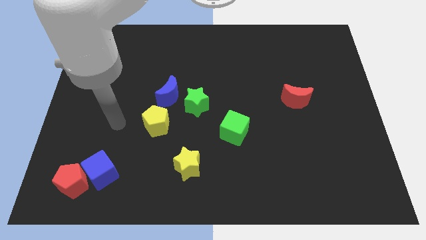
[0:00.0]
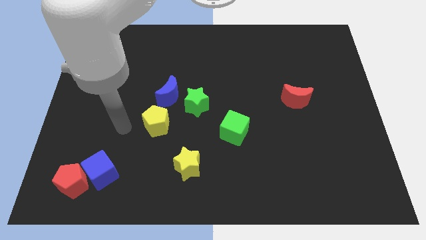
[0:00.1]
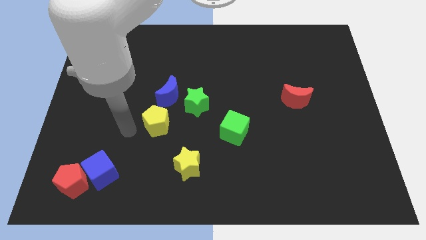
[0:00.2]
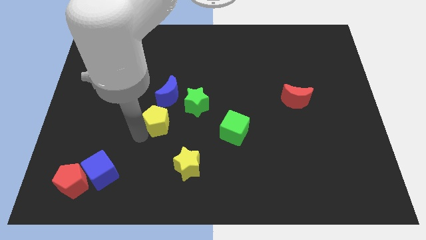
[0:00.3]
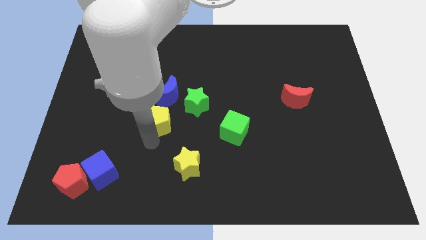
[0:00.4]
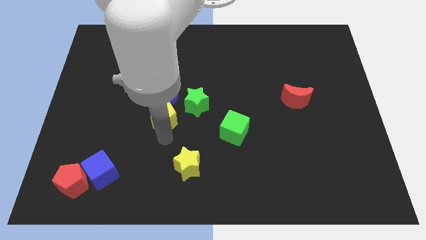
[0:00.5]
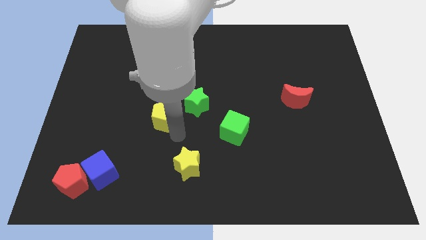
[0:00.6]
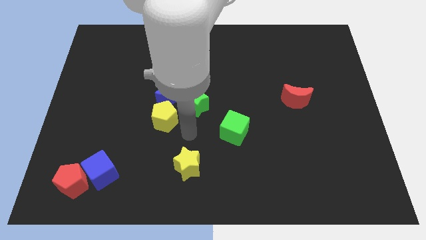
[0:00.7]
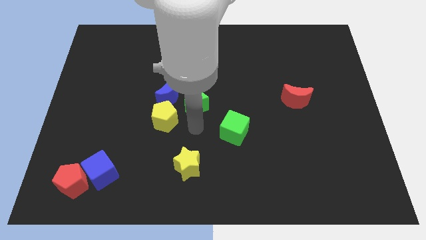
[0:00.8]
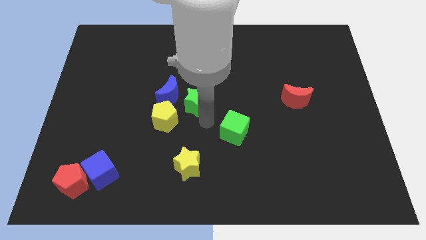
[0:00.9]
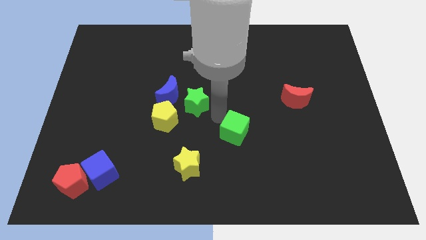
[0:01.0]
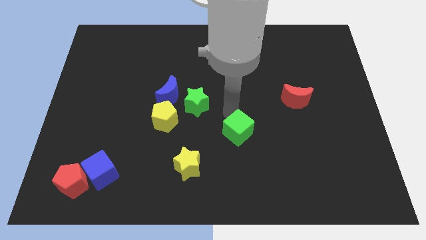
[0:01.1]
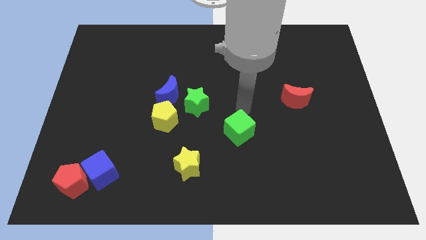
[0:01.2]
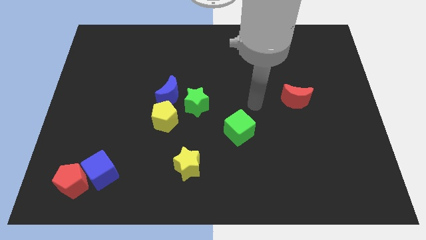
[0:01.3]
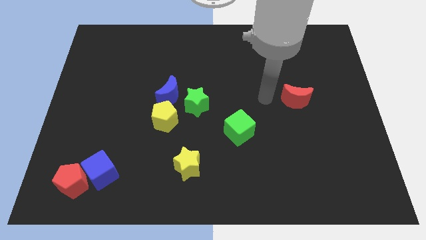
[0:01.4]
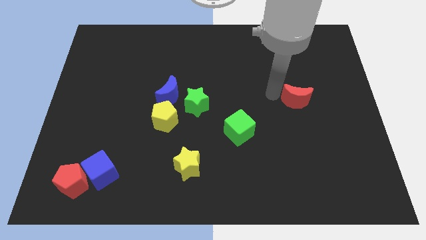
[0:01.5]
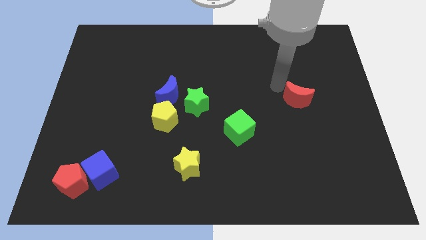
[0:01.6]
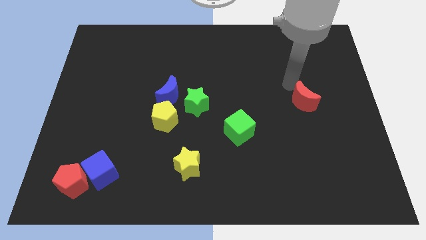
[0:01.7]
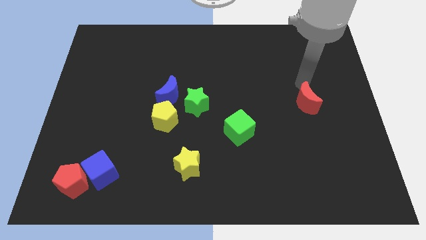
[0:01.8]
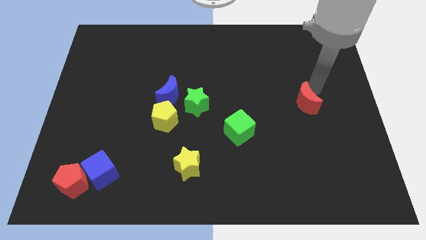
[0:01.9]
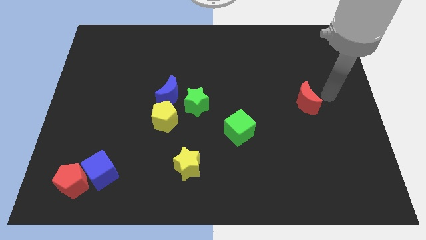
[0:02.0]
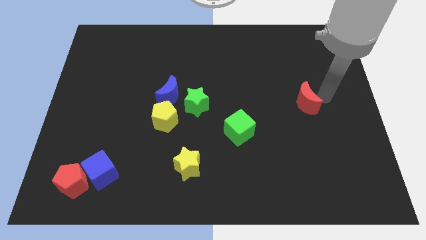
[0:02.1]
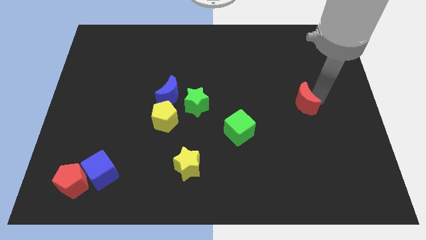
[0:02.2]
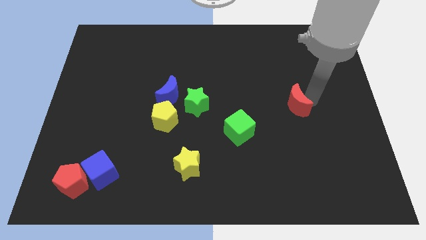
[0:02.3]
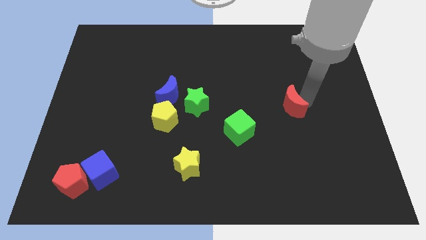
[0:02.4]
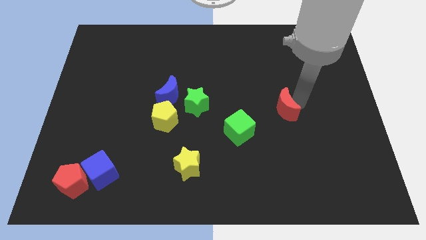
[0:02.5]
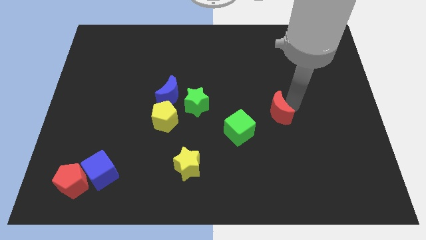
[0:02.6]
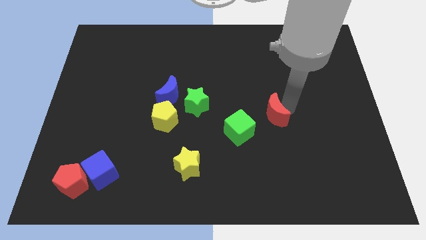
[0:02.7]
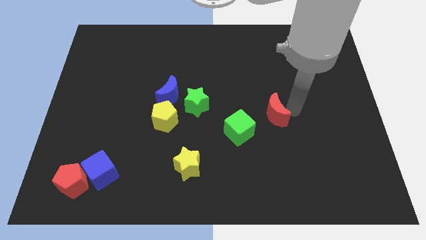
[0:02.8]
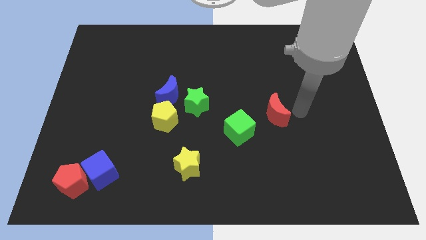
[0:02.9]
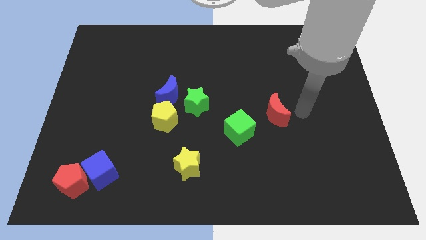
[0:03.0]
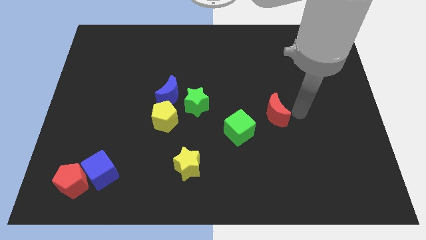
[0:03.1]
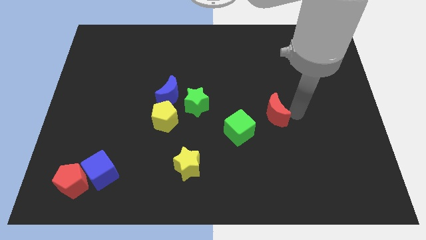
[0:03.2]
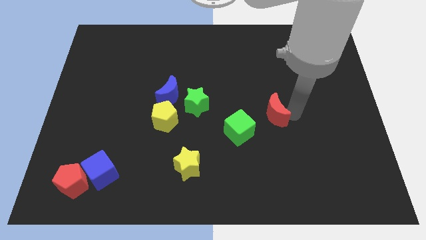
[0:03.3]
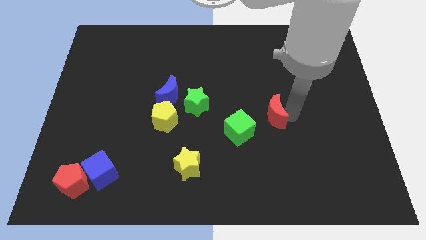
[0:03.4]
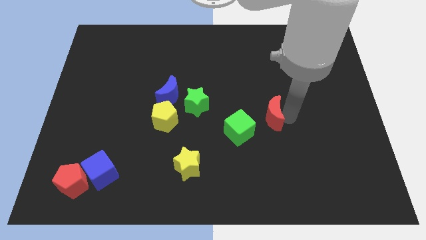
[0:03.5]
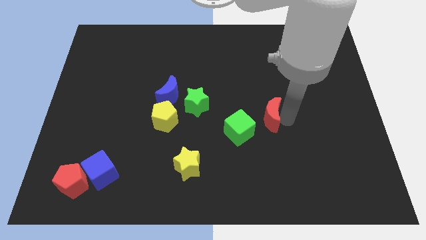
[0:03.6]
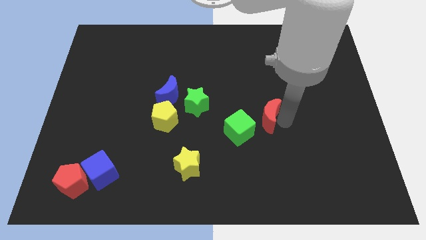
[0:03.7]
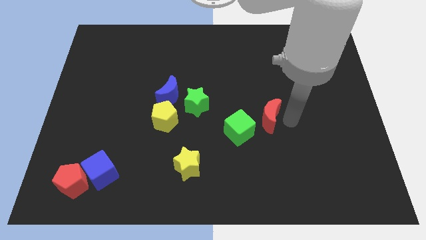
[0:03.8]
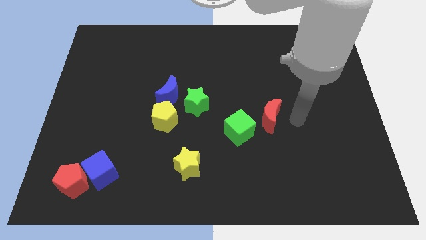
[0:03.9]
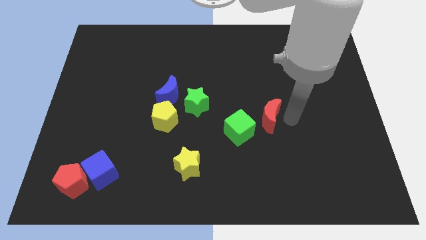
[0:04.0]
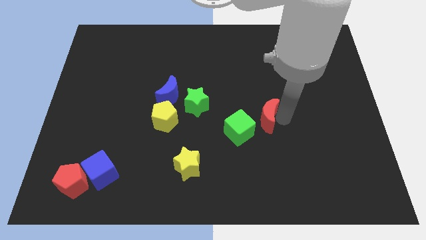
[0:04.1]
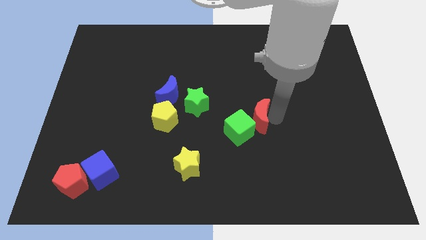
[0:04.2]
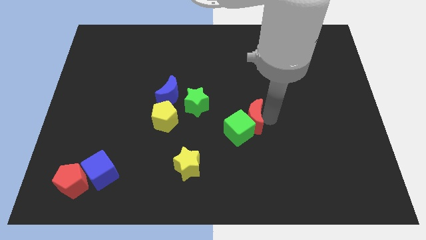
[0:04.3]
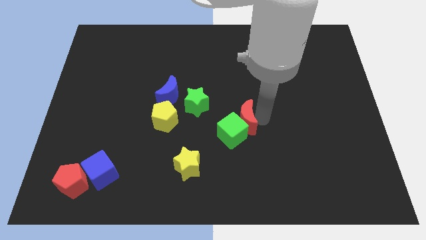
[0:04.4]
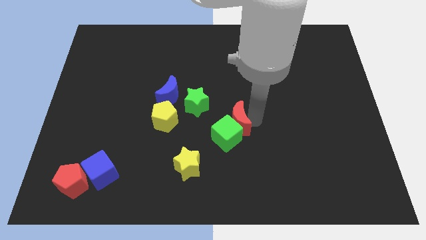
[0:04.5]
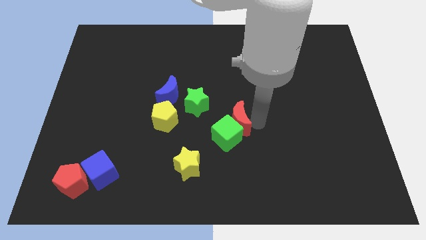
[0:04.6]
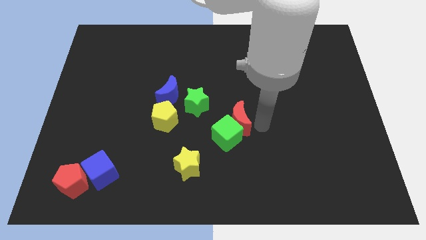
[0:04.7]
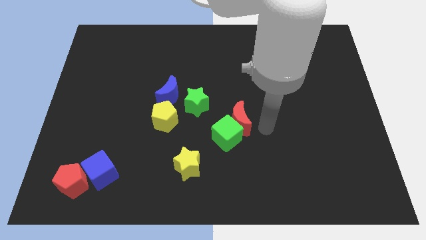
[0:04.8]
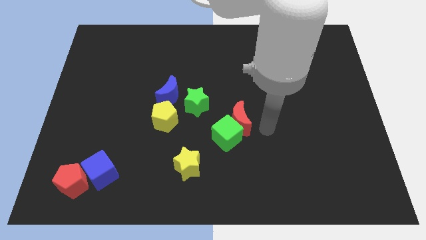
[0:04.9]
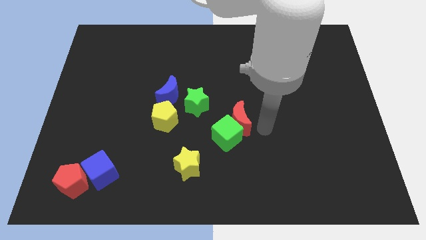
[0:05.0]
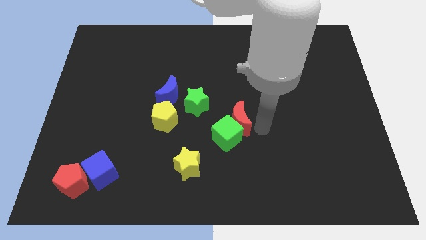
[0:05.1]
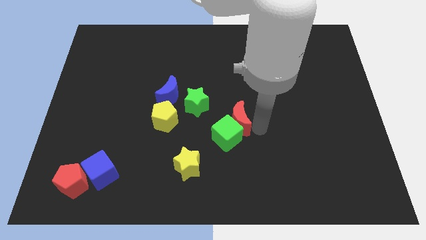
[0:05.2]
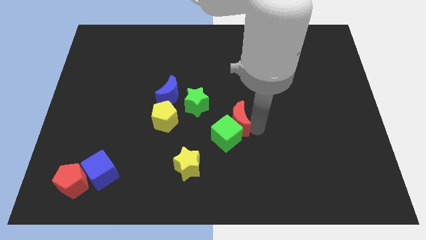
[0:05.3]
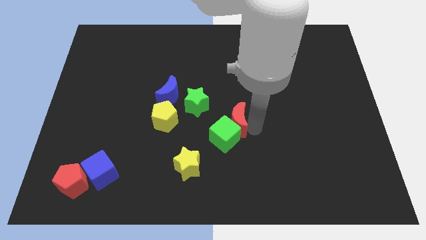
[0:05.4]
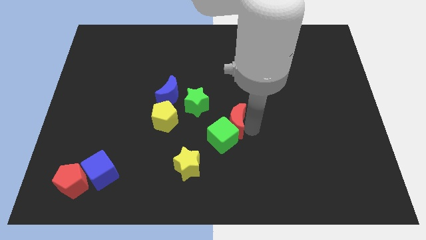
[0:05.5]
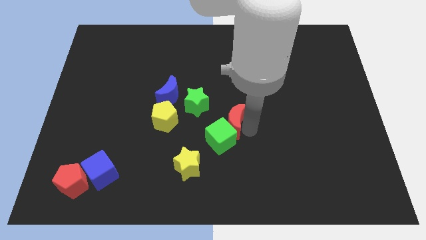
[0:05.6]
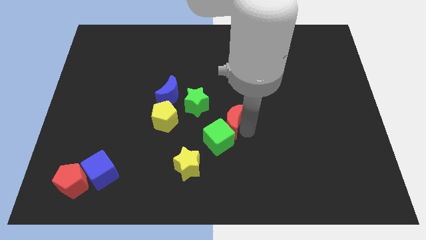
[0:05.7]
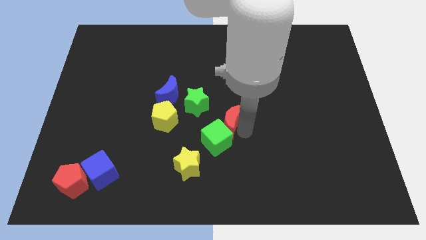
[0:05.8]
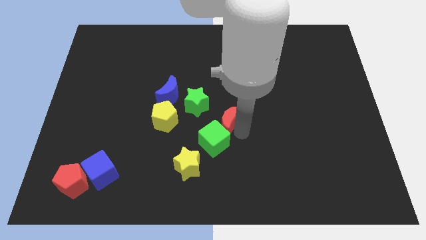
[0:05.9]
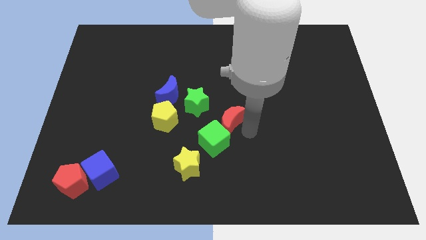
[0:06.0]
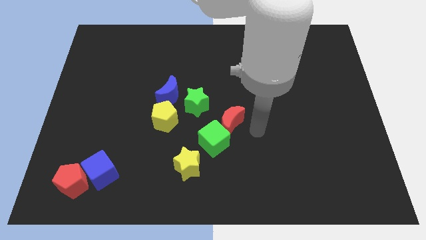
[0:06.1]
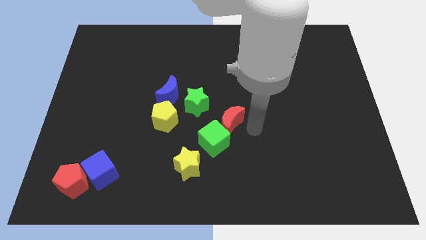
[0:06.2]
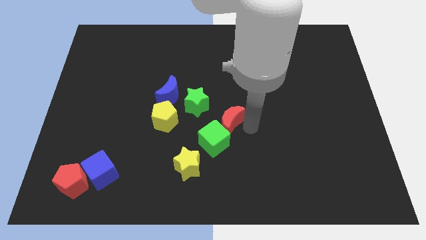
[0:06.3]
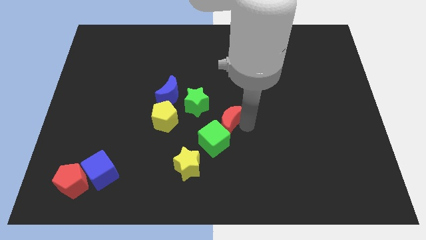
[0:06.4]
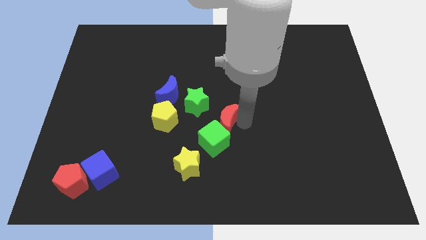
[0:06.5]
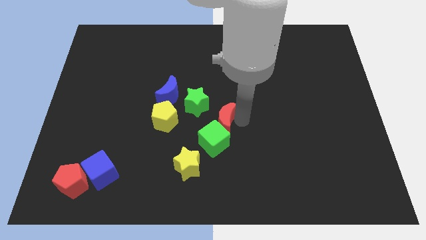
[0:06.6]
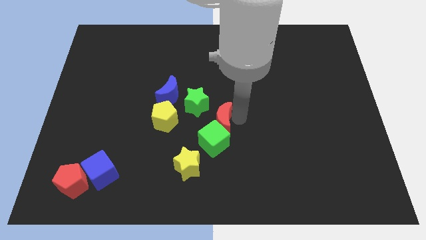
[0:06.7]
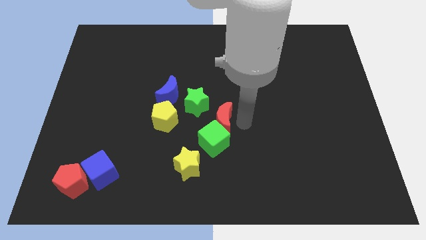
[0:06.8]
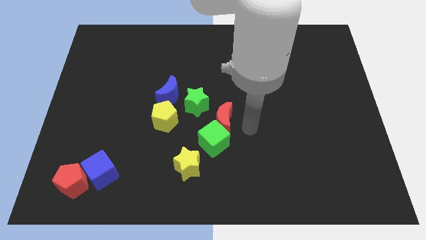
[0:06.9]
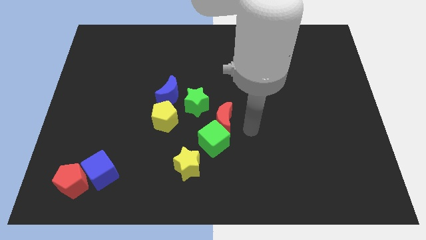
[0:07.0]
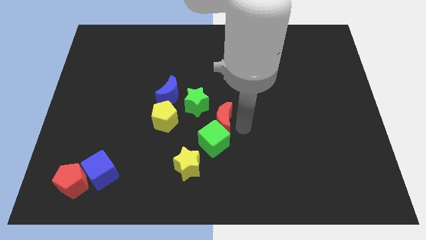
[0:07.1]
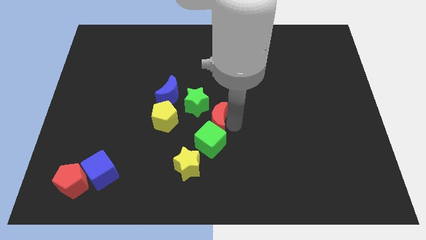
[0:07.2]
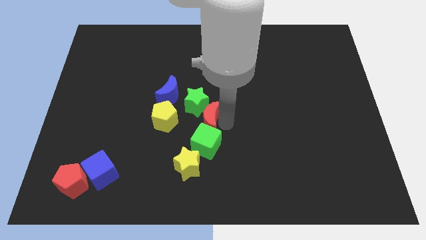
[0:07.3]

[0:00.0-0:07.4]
push the red moon to the bottom right of the blue moon
